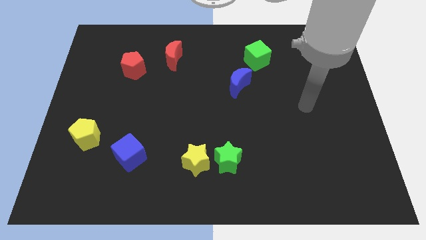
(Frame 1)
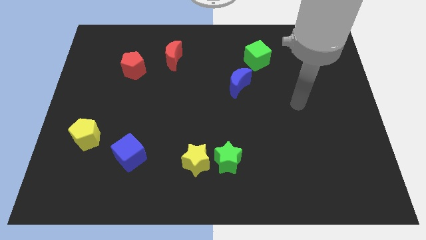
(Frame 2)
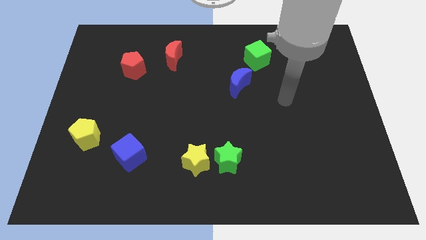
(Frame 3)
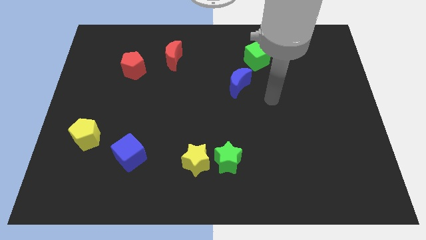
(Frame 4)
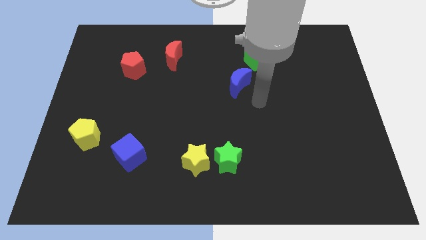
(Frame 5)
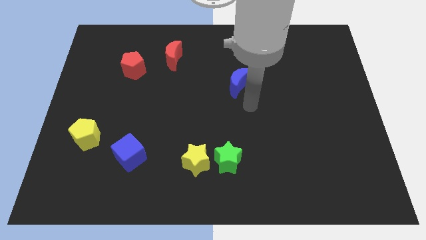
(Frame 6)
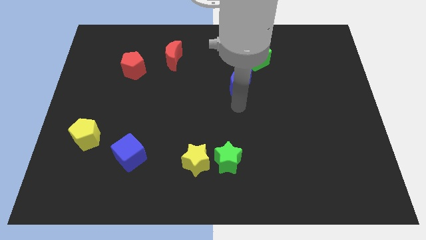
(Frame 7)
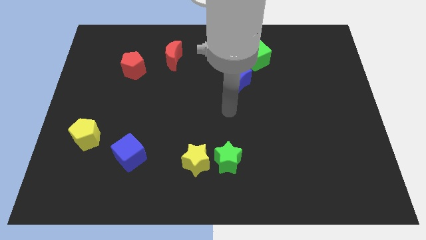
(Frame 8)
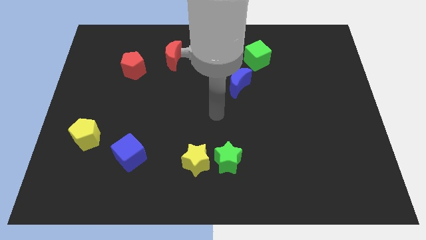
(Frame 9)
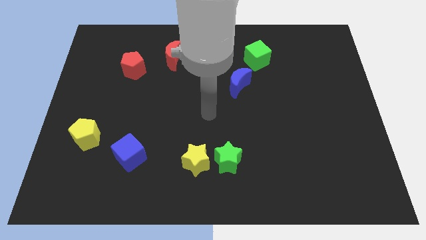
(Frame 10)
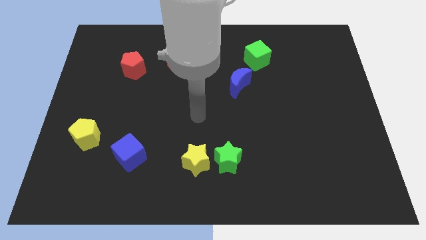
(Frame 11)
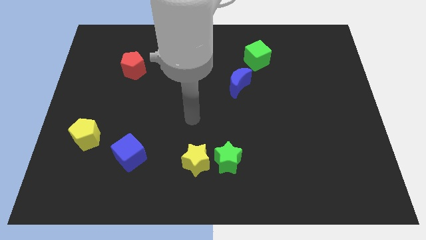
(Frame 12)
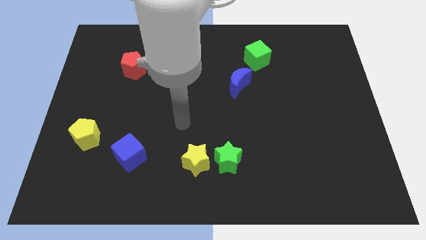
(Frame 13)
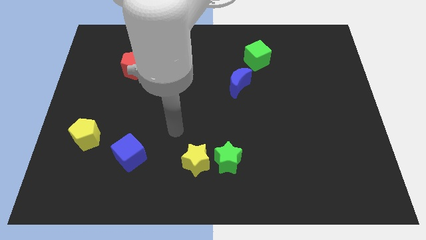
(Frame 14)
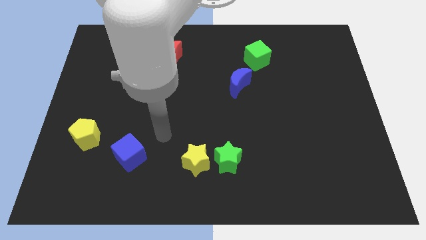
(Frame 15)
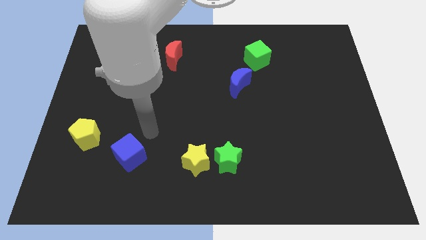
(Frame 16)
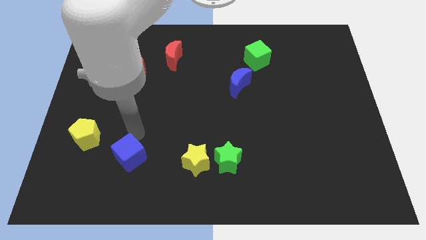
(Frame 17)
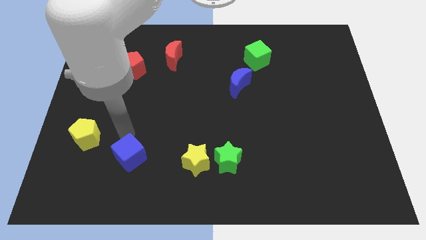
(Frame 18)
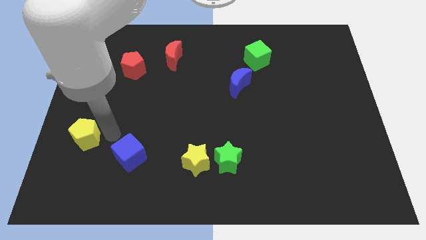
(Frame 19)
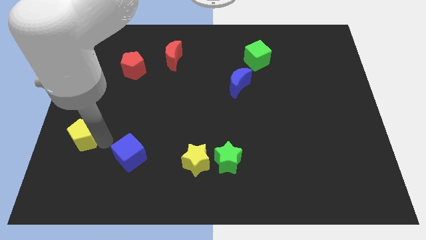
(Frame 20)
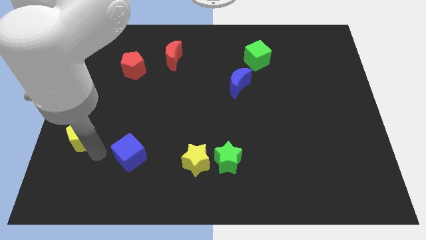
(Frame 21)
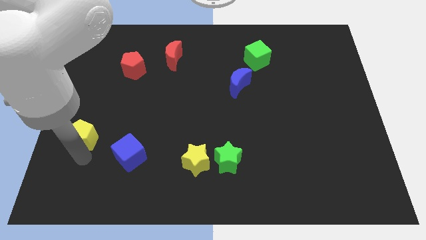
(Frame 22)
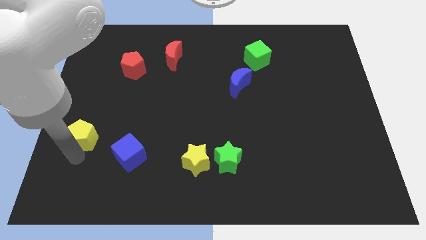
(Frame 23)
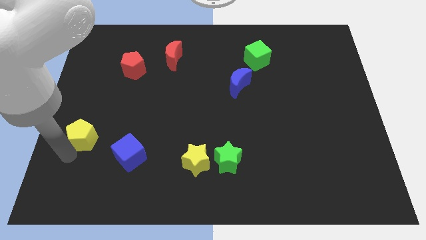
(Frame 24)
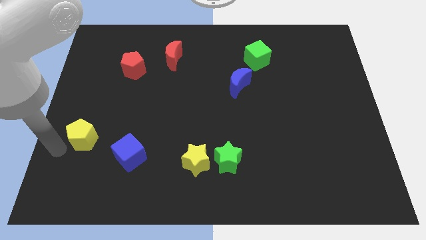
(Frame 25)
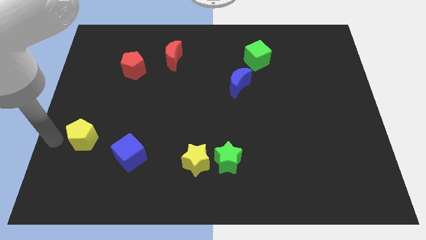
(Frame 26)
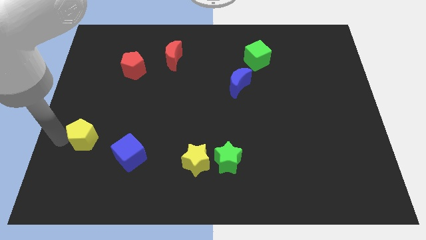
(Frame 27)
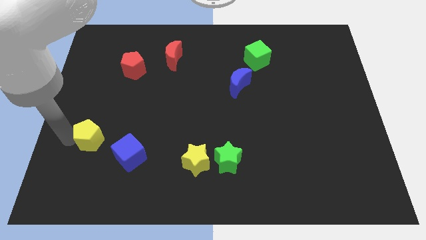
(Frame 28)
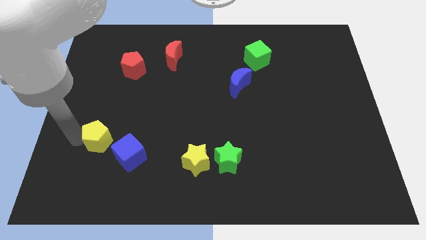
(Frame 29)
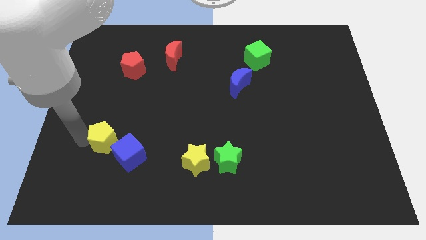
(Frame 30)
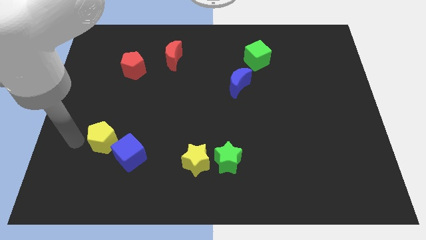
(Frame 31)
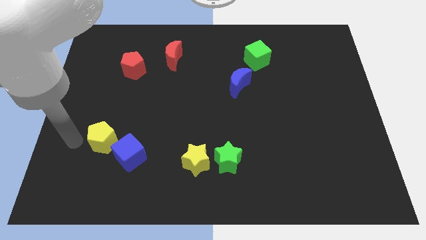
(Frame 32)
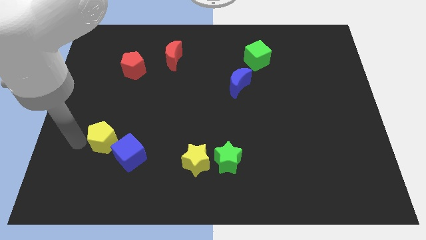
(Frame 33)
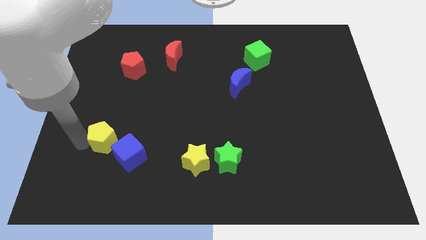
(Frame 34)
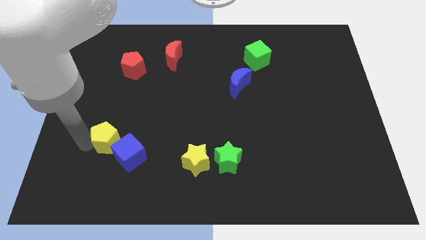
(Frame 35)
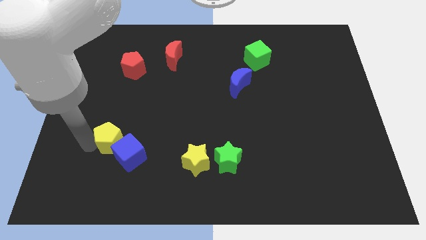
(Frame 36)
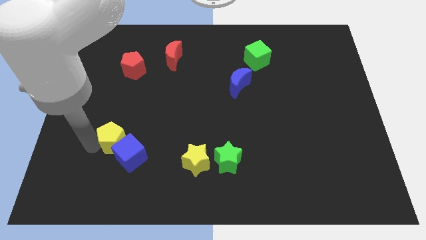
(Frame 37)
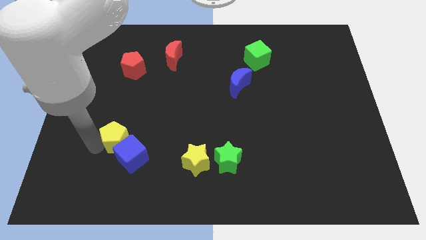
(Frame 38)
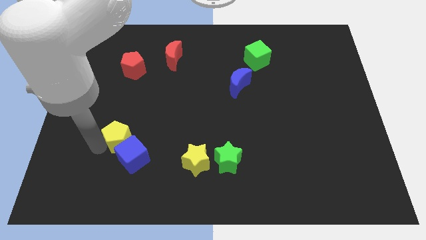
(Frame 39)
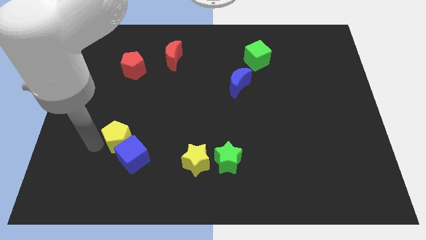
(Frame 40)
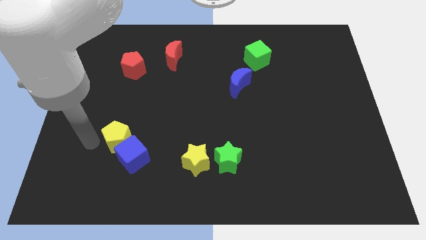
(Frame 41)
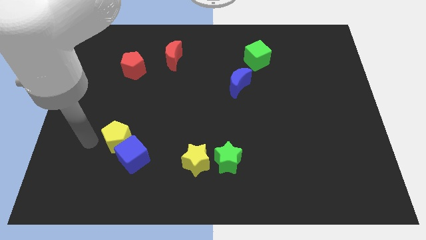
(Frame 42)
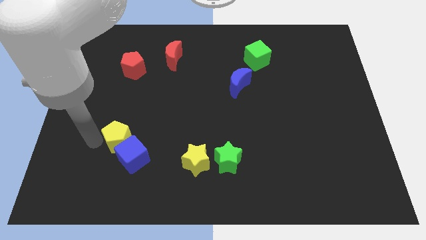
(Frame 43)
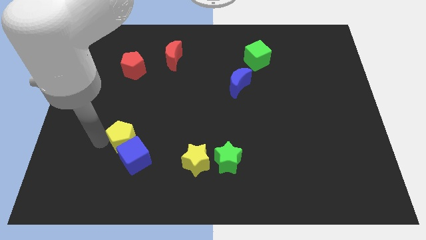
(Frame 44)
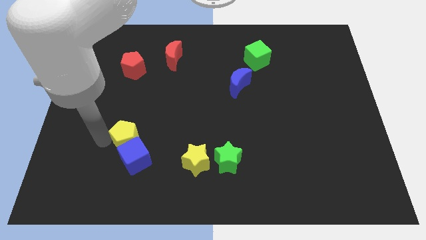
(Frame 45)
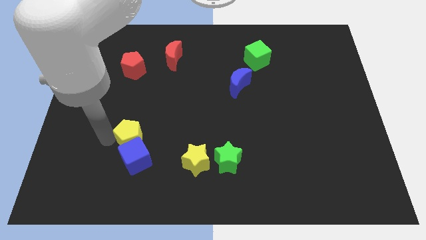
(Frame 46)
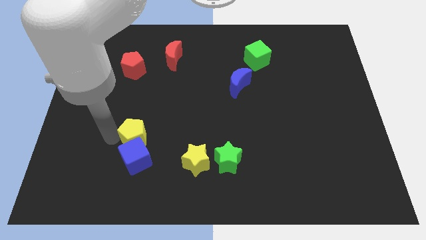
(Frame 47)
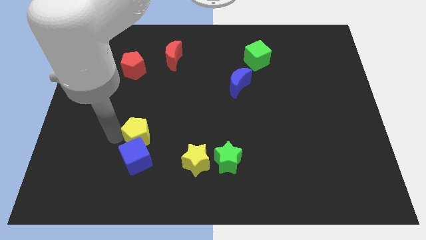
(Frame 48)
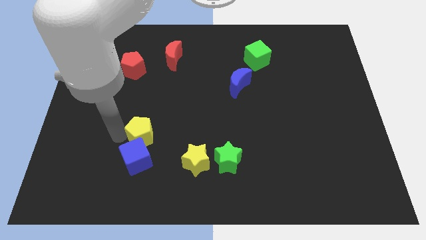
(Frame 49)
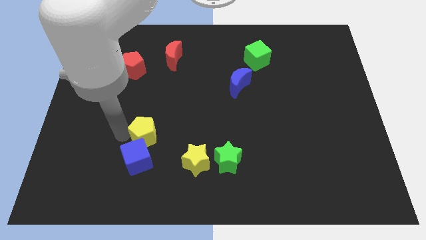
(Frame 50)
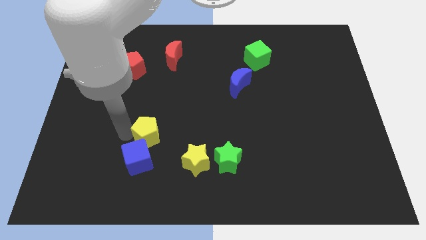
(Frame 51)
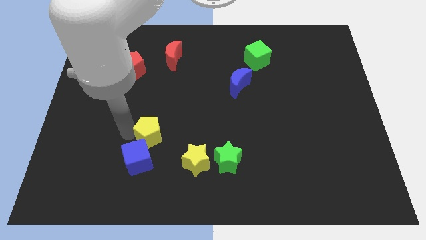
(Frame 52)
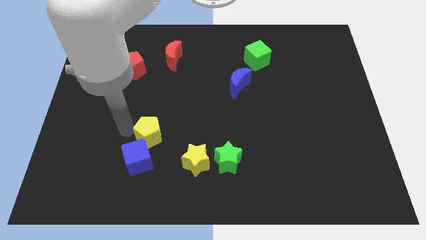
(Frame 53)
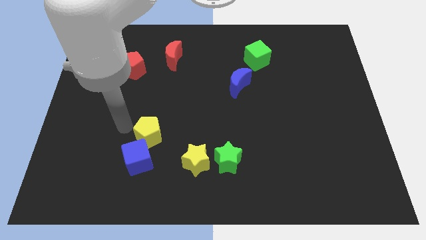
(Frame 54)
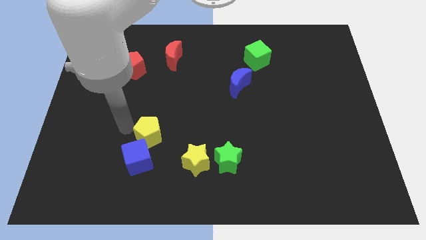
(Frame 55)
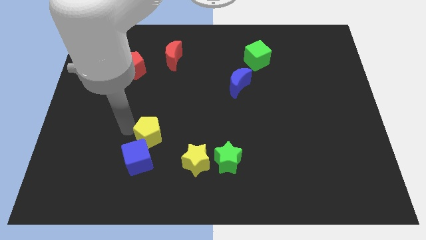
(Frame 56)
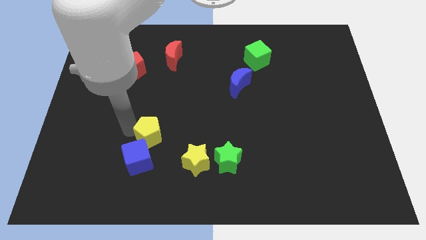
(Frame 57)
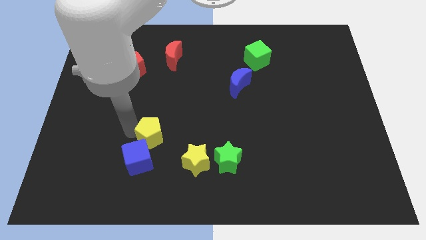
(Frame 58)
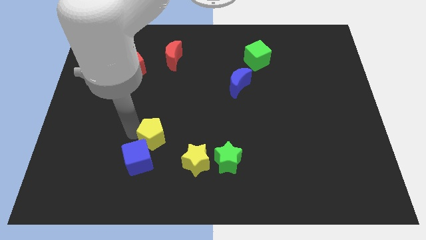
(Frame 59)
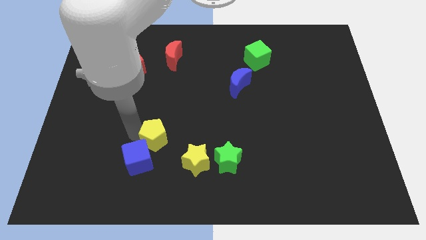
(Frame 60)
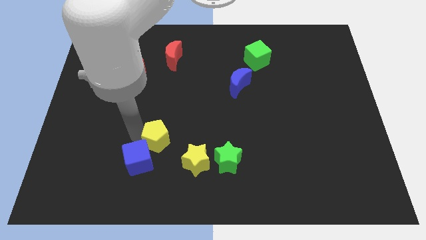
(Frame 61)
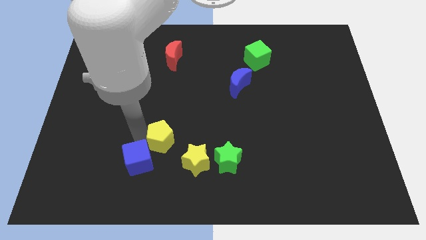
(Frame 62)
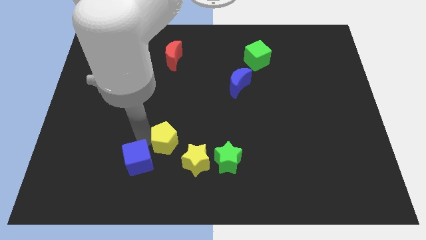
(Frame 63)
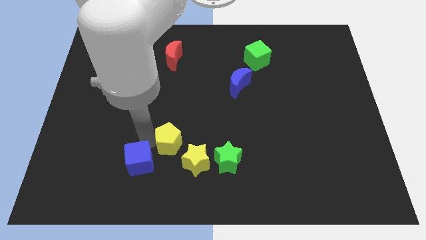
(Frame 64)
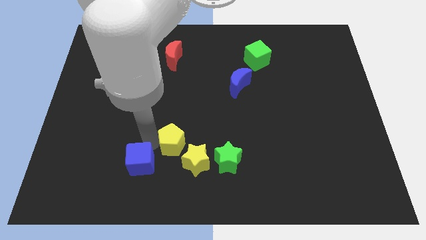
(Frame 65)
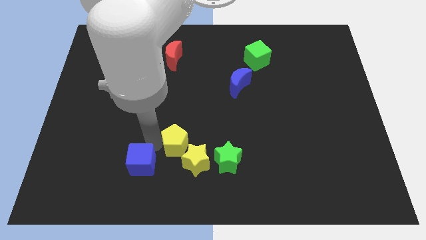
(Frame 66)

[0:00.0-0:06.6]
move the yellow pentagon to the right

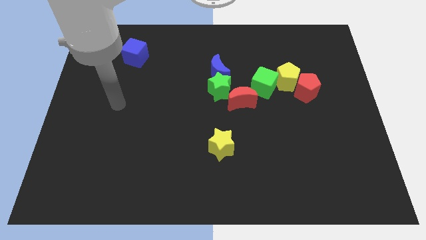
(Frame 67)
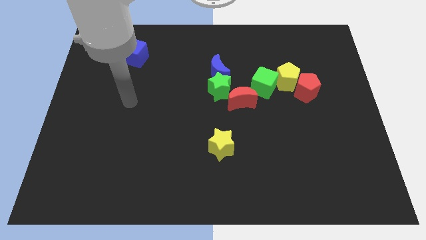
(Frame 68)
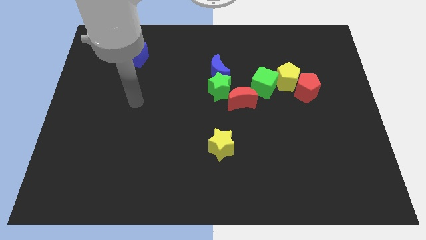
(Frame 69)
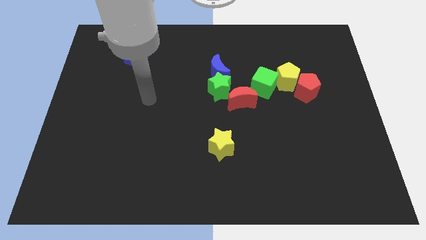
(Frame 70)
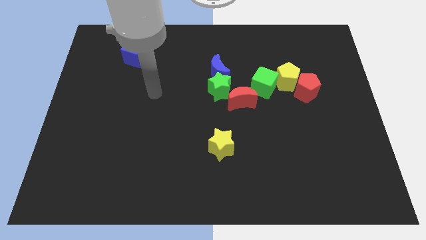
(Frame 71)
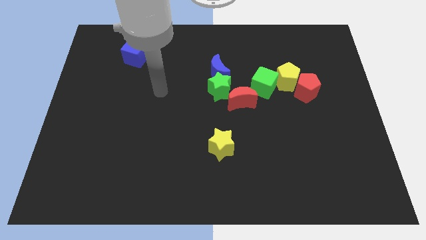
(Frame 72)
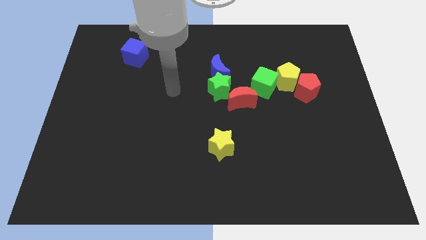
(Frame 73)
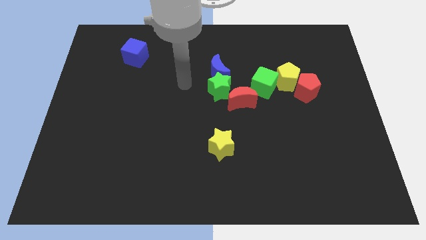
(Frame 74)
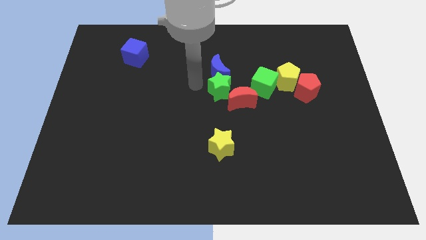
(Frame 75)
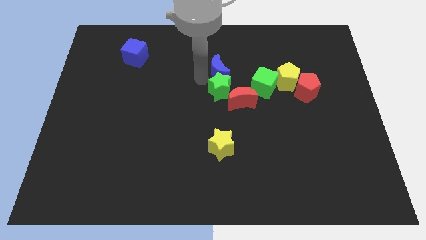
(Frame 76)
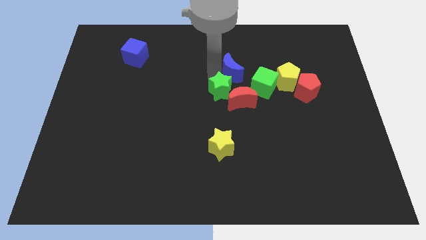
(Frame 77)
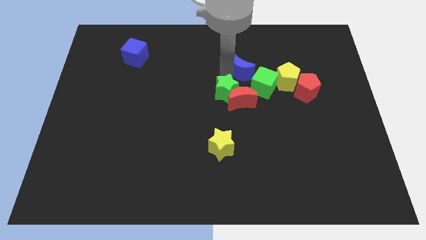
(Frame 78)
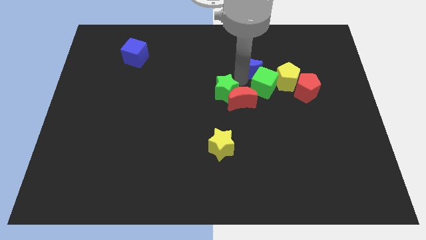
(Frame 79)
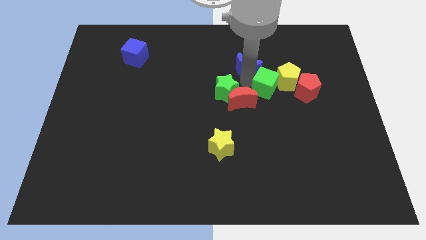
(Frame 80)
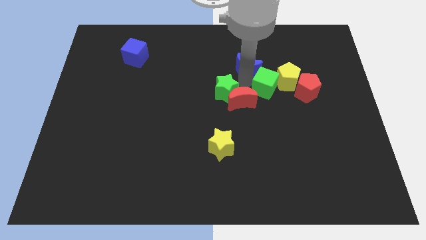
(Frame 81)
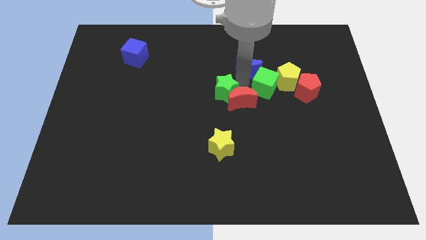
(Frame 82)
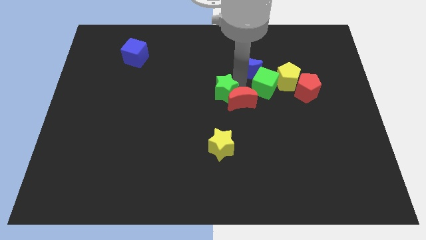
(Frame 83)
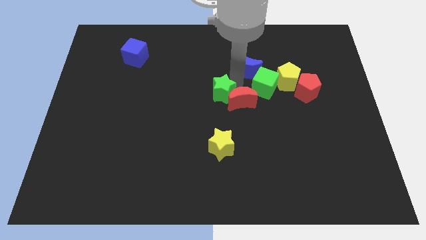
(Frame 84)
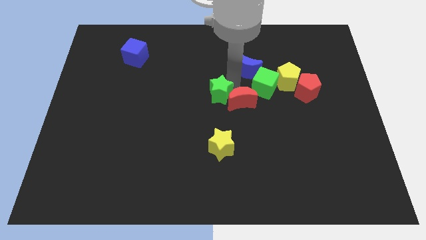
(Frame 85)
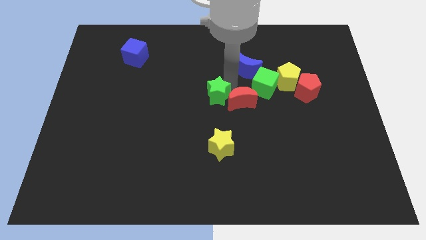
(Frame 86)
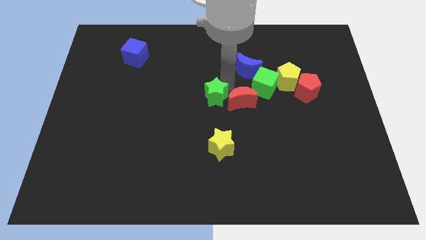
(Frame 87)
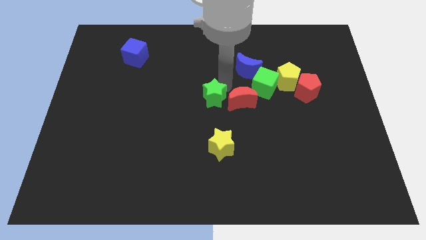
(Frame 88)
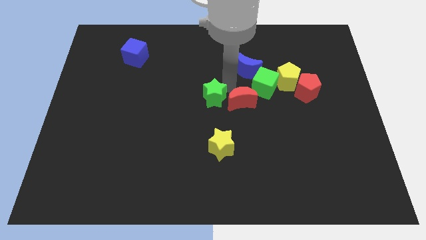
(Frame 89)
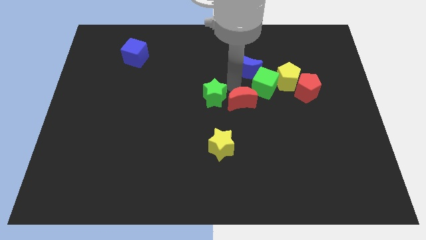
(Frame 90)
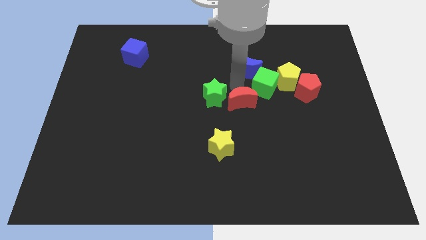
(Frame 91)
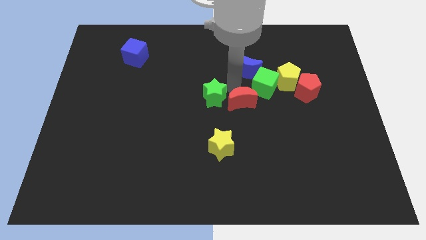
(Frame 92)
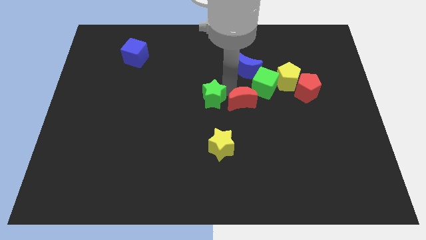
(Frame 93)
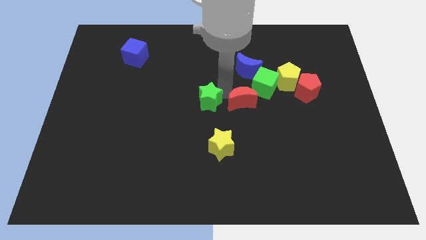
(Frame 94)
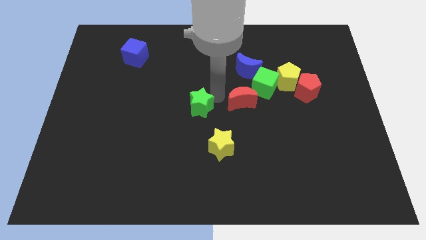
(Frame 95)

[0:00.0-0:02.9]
slightly slide the green star downwards and to the left diagonally
